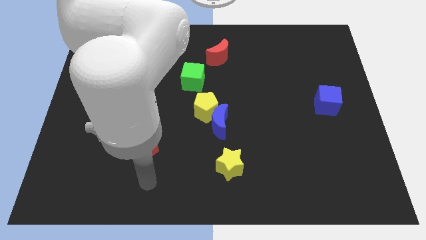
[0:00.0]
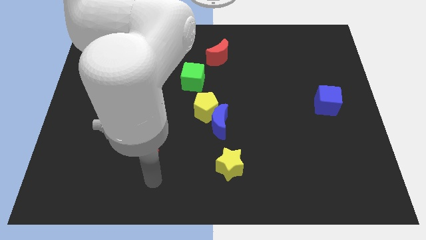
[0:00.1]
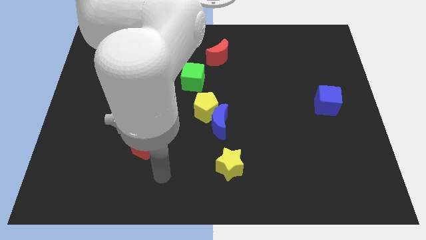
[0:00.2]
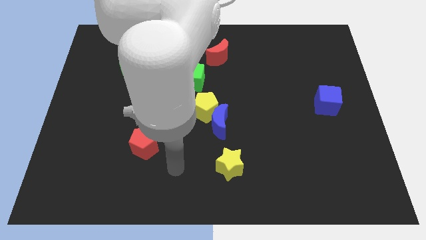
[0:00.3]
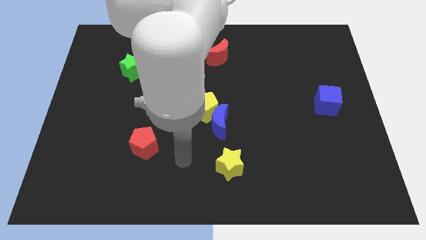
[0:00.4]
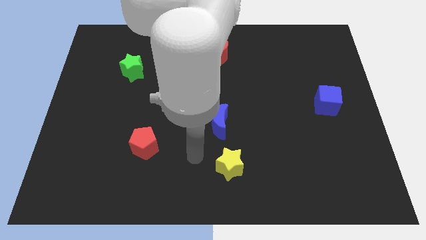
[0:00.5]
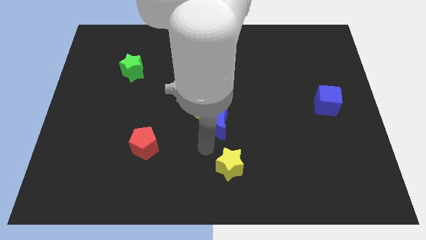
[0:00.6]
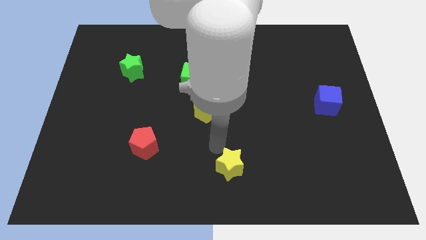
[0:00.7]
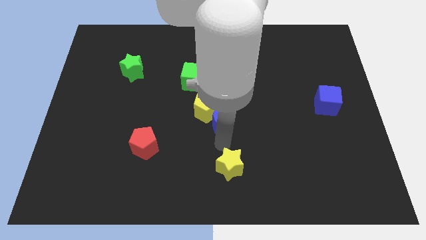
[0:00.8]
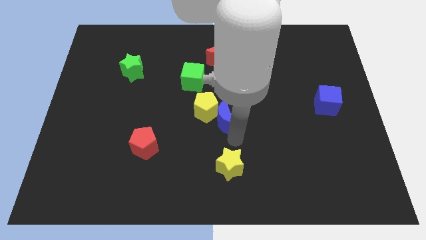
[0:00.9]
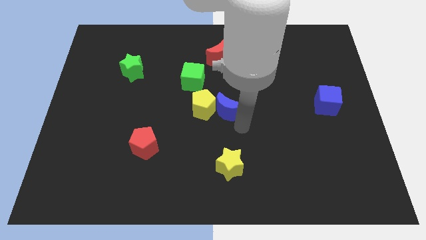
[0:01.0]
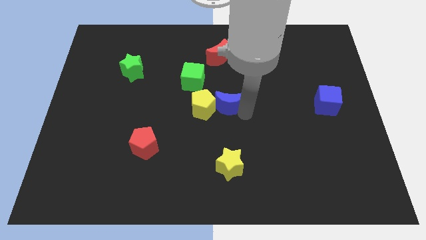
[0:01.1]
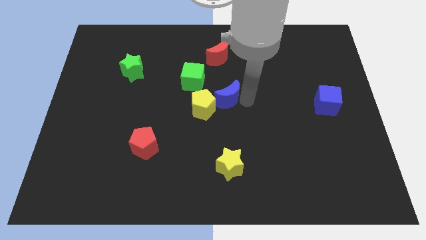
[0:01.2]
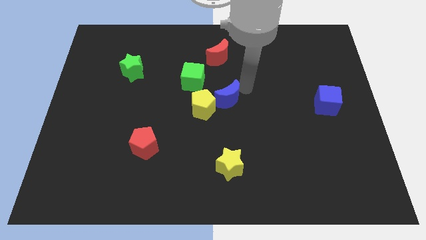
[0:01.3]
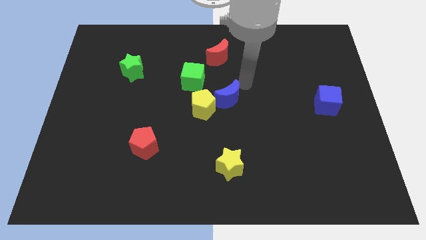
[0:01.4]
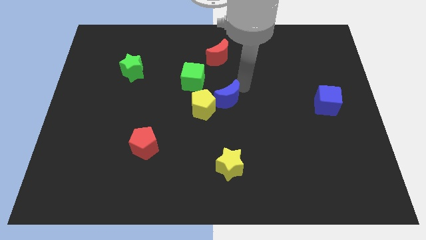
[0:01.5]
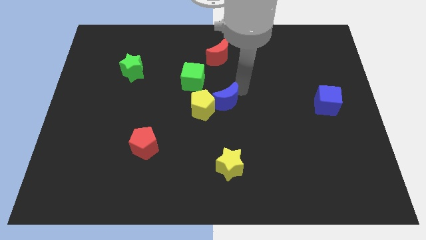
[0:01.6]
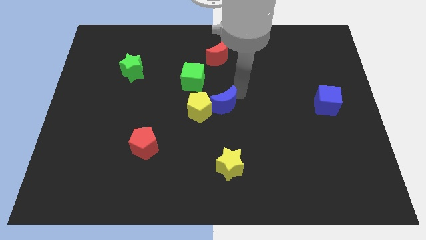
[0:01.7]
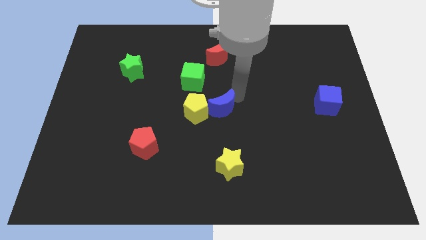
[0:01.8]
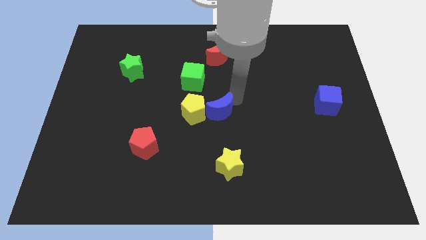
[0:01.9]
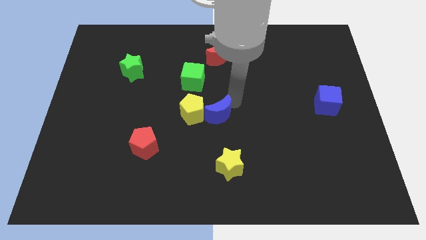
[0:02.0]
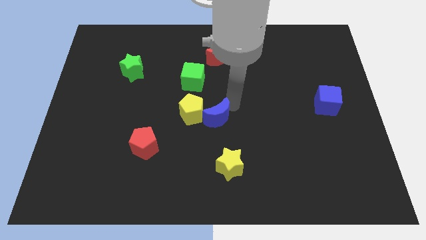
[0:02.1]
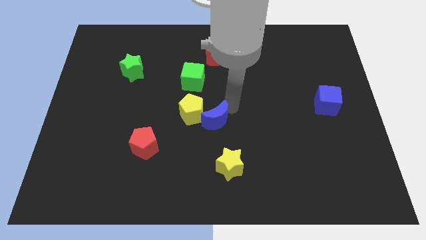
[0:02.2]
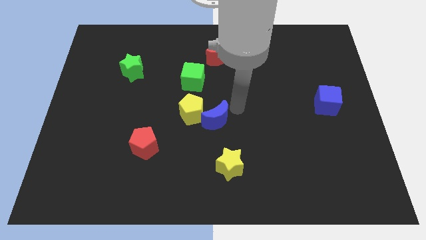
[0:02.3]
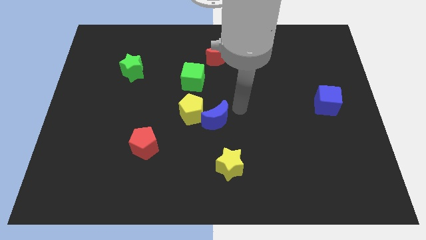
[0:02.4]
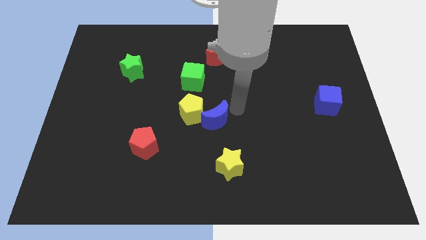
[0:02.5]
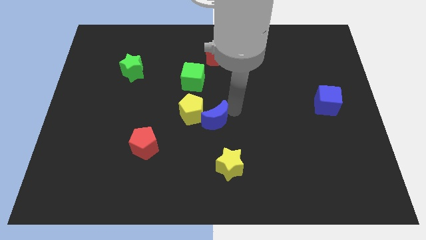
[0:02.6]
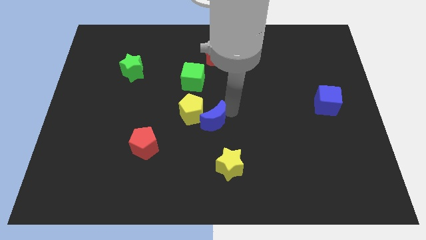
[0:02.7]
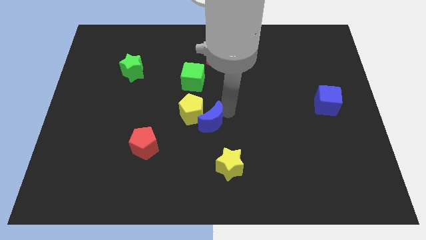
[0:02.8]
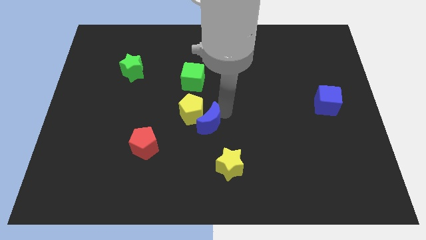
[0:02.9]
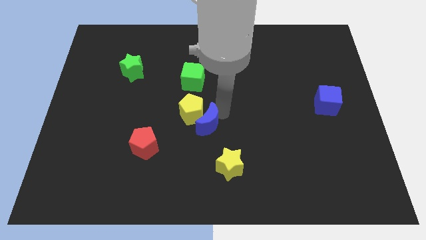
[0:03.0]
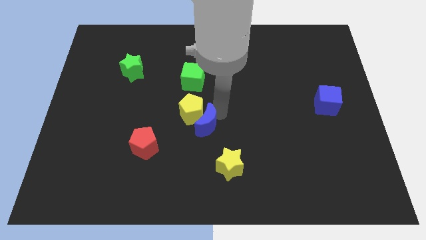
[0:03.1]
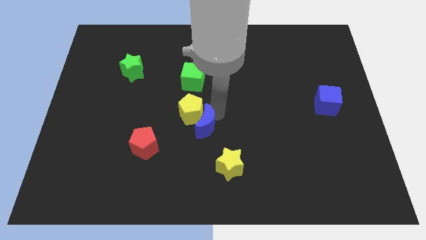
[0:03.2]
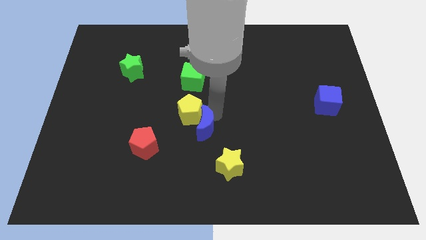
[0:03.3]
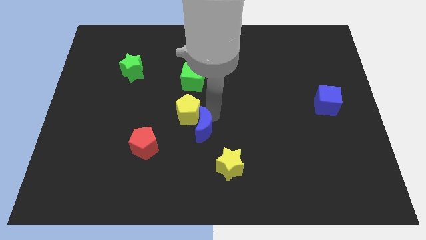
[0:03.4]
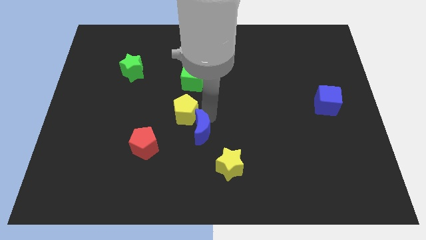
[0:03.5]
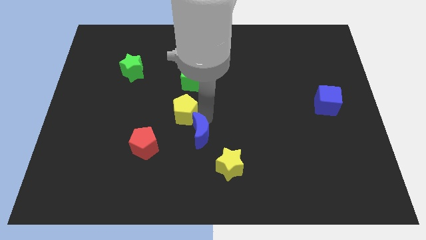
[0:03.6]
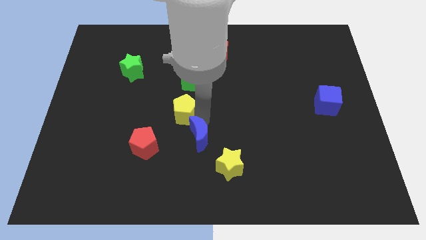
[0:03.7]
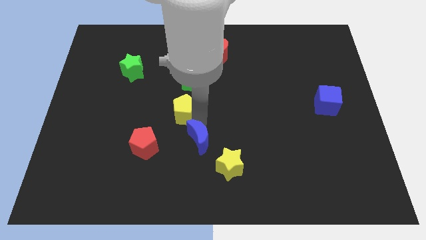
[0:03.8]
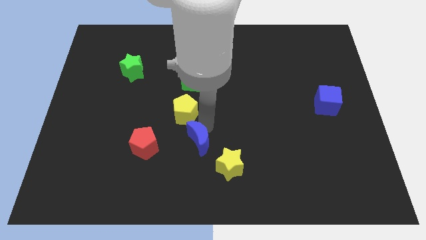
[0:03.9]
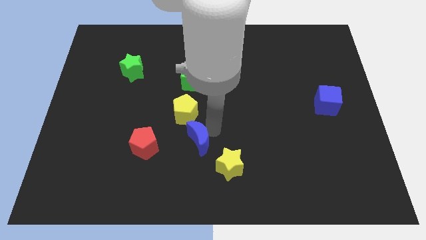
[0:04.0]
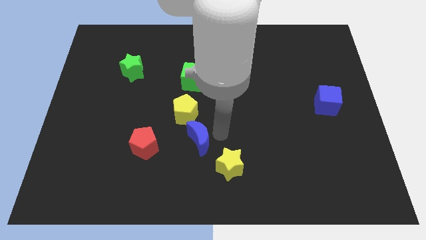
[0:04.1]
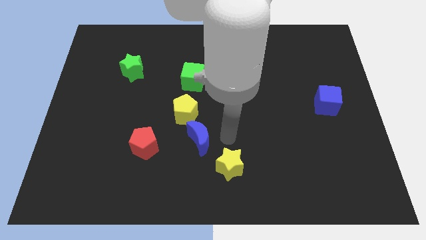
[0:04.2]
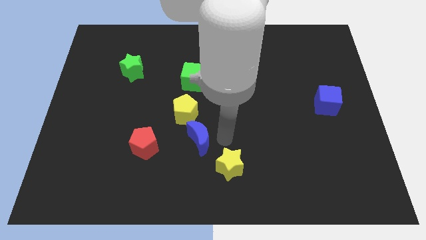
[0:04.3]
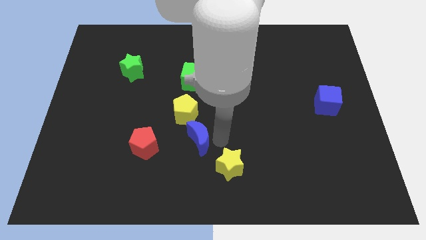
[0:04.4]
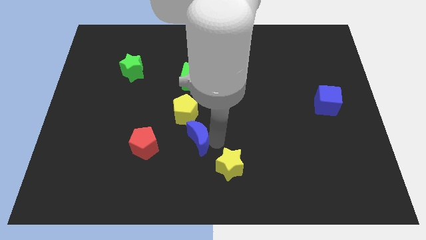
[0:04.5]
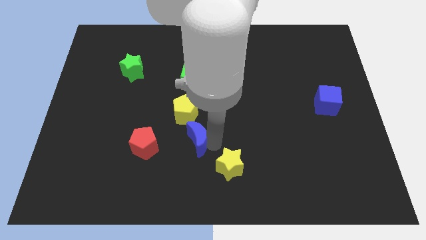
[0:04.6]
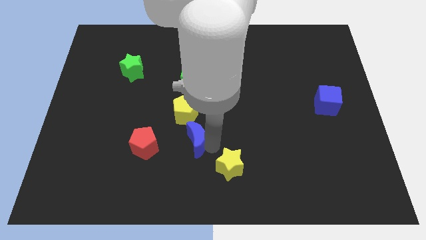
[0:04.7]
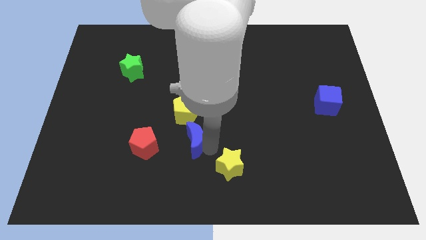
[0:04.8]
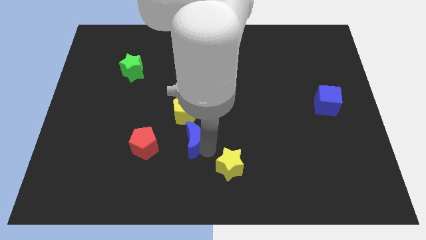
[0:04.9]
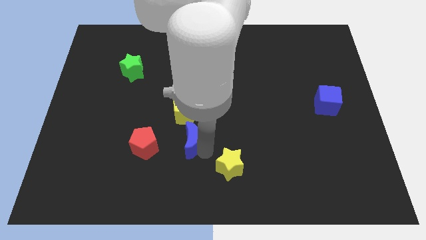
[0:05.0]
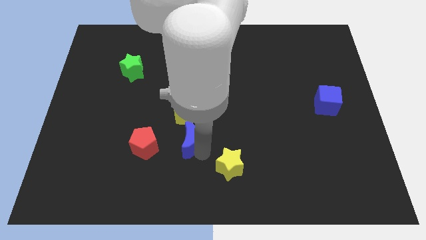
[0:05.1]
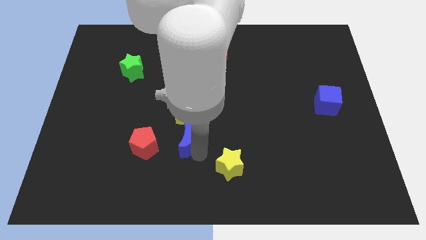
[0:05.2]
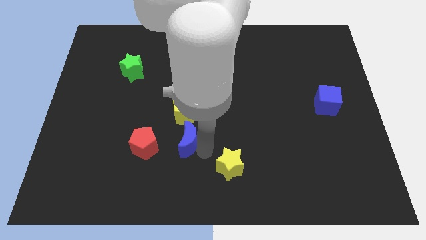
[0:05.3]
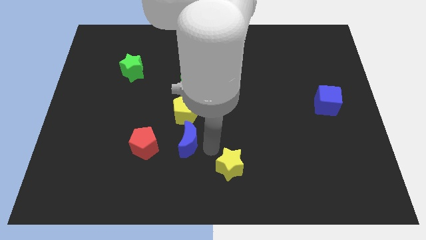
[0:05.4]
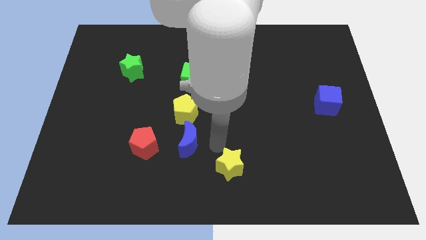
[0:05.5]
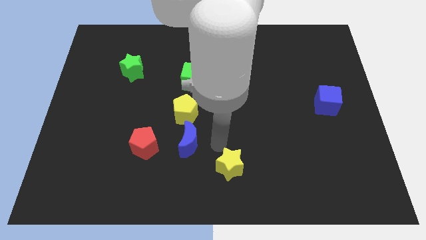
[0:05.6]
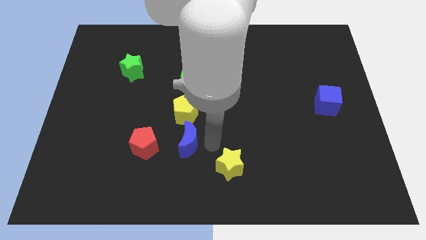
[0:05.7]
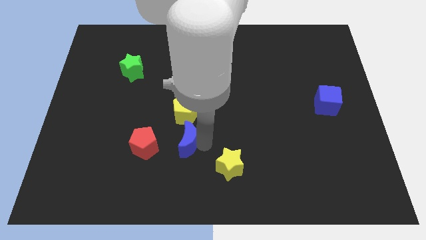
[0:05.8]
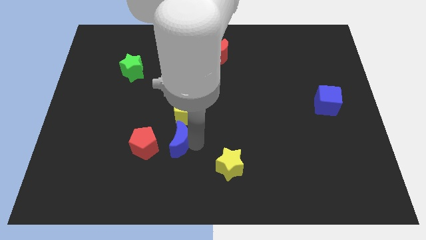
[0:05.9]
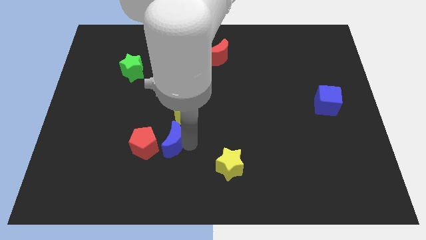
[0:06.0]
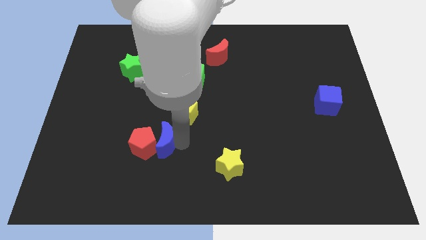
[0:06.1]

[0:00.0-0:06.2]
put the blue moon next to the red pentagon
